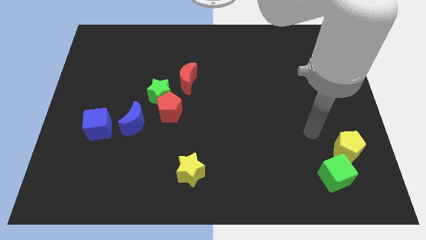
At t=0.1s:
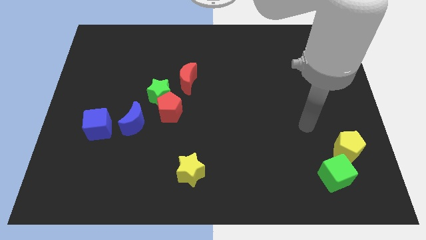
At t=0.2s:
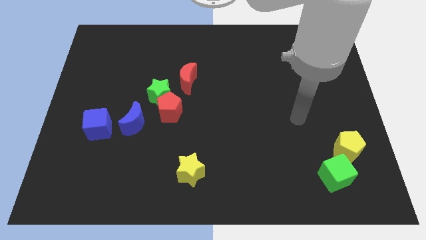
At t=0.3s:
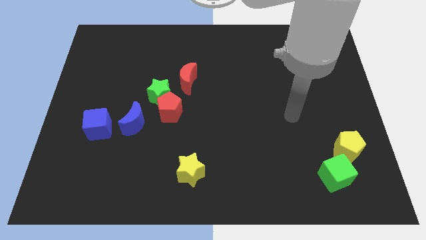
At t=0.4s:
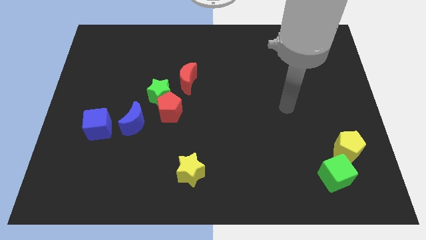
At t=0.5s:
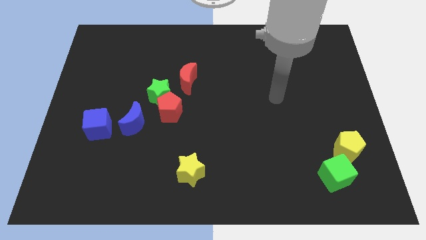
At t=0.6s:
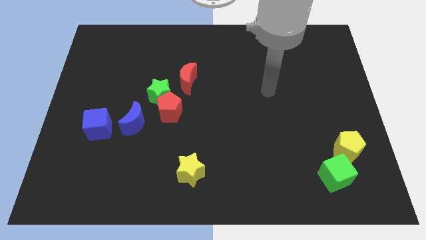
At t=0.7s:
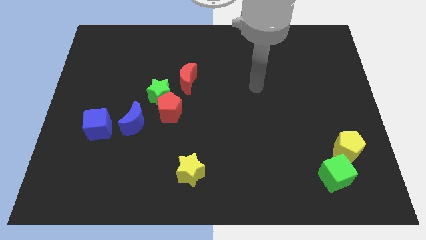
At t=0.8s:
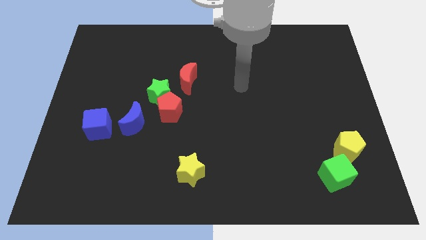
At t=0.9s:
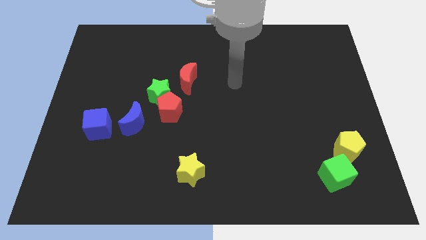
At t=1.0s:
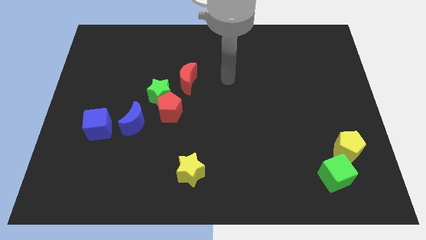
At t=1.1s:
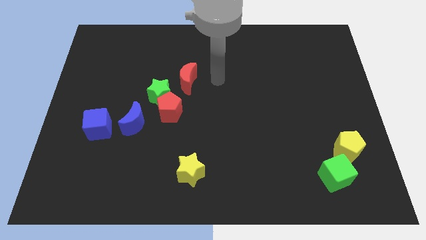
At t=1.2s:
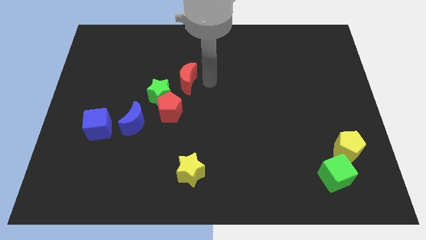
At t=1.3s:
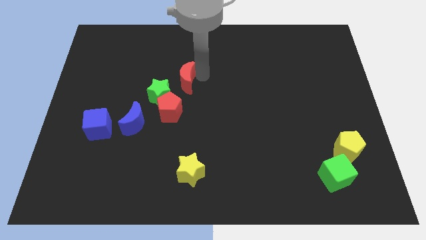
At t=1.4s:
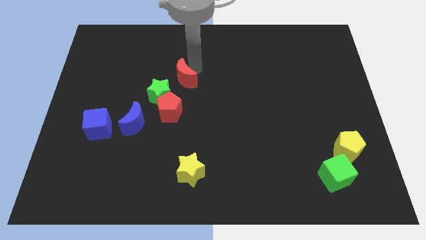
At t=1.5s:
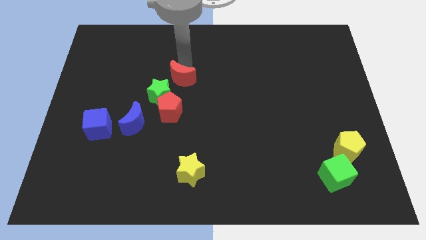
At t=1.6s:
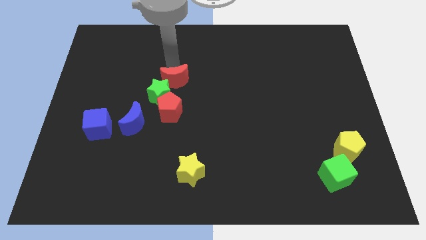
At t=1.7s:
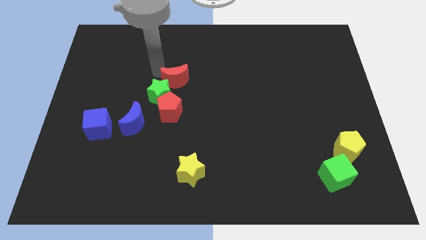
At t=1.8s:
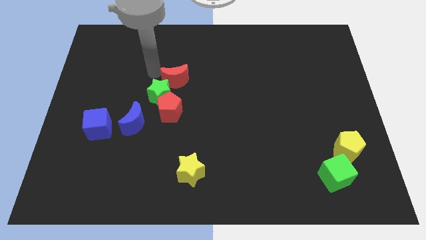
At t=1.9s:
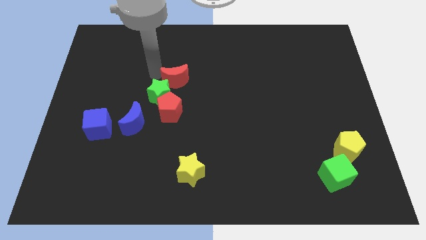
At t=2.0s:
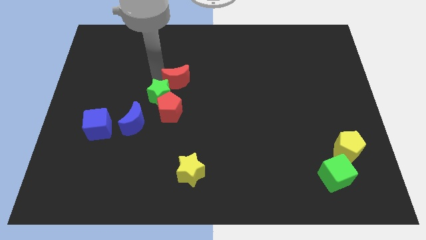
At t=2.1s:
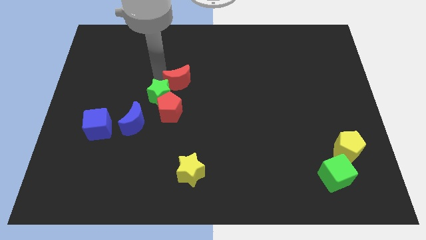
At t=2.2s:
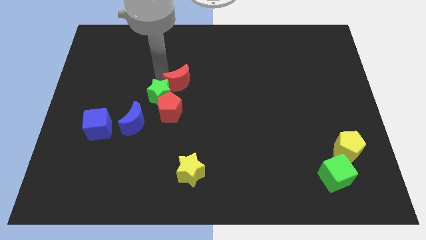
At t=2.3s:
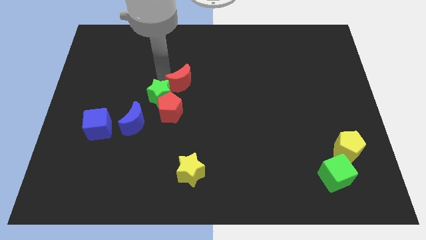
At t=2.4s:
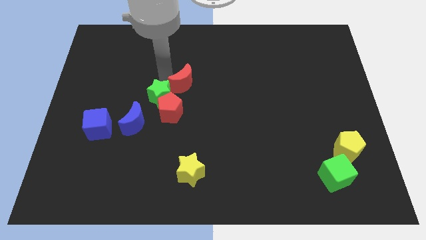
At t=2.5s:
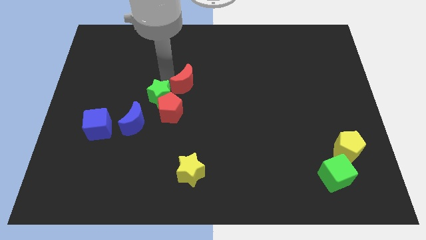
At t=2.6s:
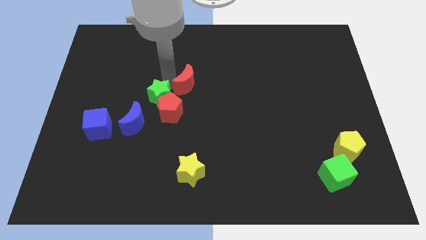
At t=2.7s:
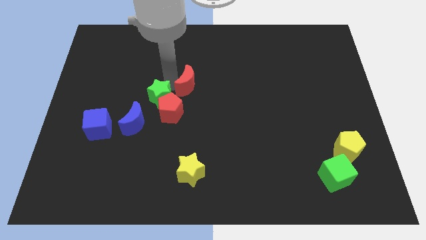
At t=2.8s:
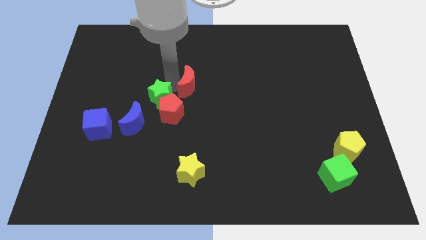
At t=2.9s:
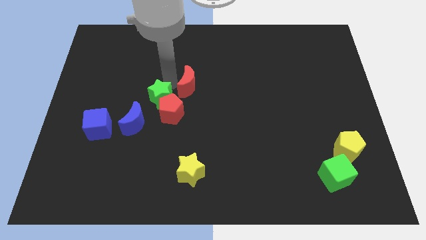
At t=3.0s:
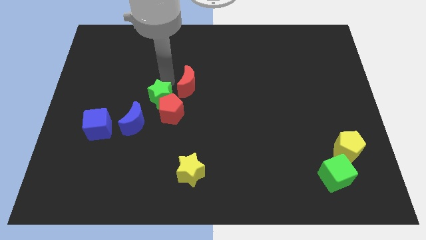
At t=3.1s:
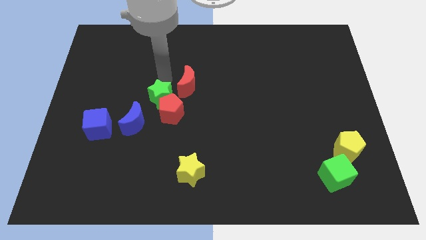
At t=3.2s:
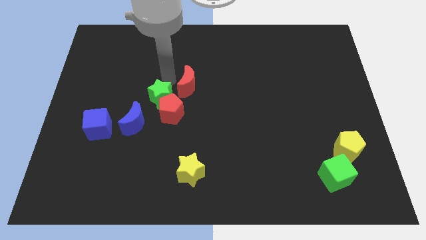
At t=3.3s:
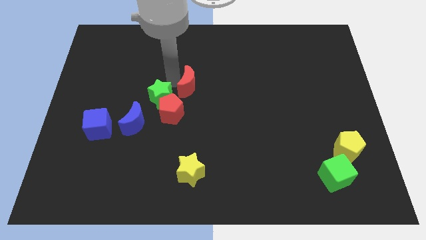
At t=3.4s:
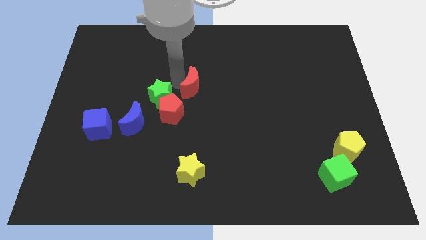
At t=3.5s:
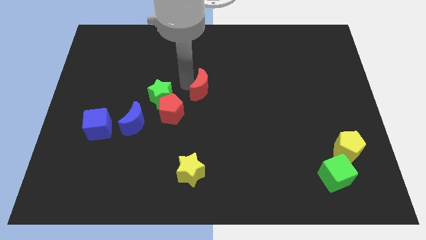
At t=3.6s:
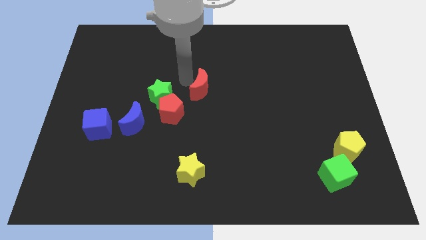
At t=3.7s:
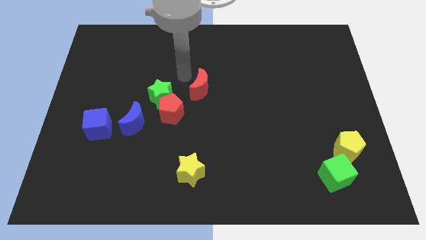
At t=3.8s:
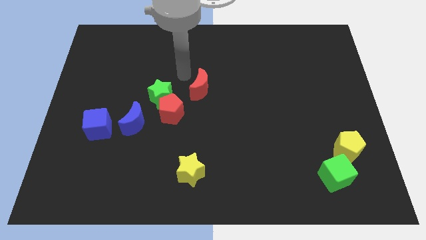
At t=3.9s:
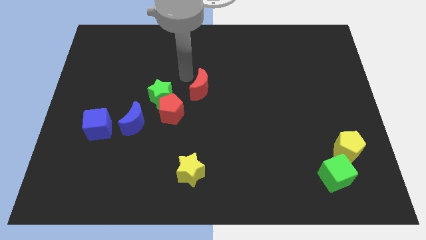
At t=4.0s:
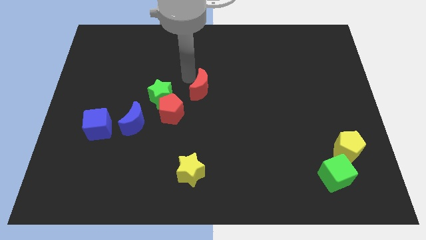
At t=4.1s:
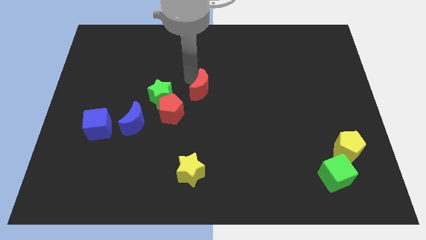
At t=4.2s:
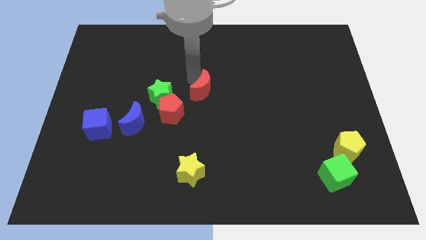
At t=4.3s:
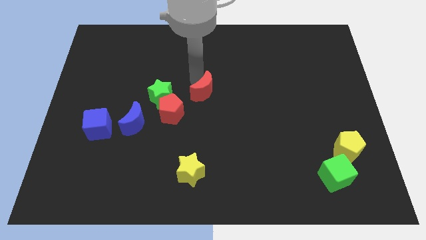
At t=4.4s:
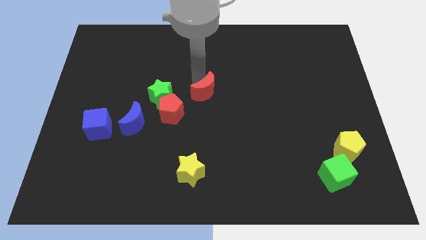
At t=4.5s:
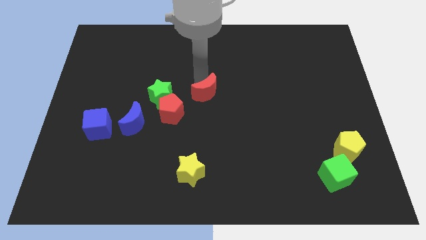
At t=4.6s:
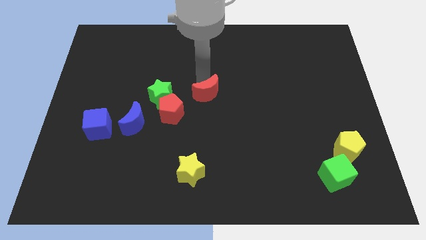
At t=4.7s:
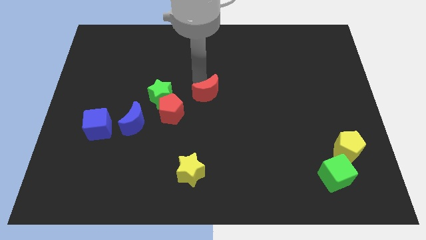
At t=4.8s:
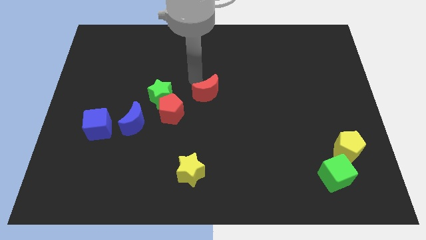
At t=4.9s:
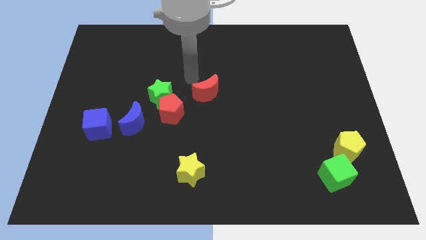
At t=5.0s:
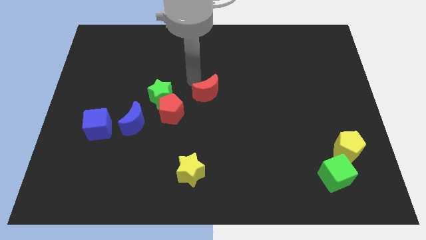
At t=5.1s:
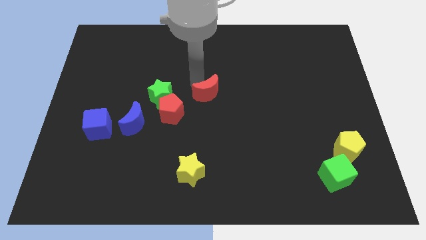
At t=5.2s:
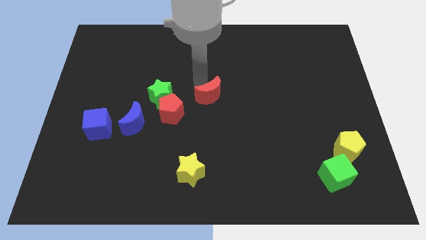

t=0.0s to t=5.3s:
push the red moon downwards and right somewhat

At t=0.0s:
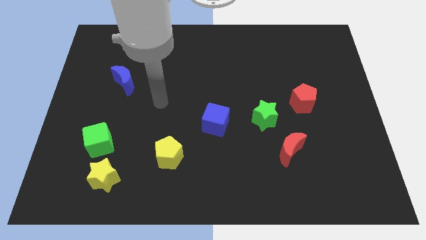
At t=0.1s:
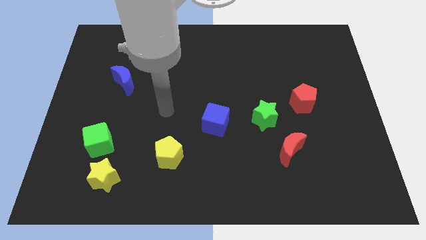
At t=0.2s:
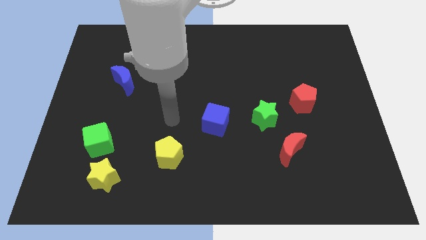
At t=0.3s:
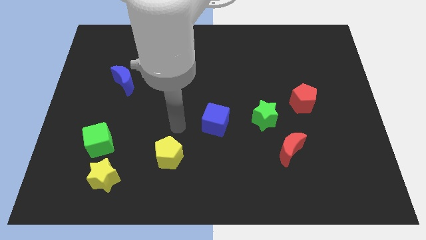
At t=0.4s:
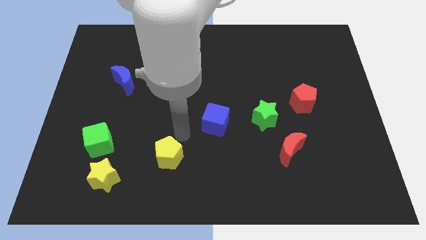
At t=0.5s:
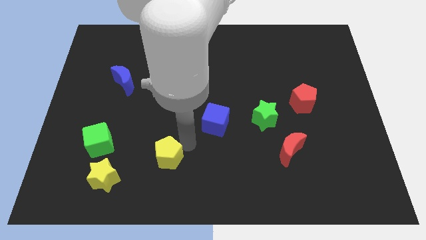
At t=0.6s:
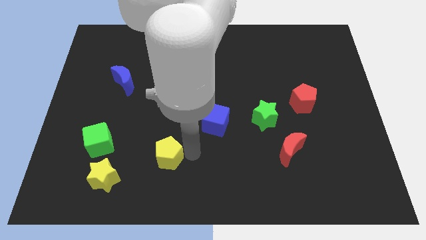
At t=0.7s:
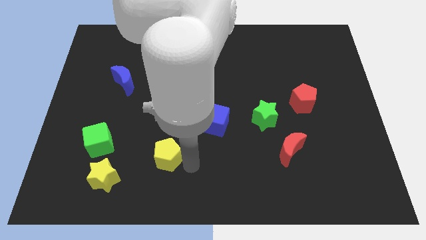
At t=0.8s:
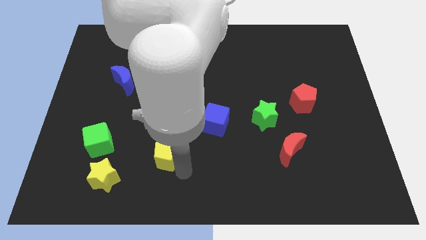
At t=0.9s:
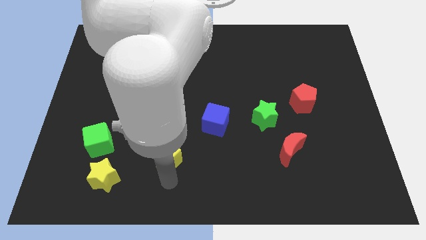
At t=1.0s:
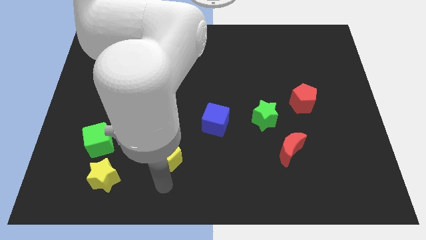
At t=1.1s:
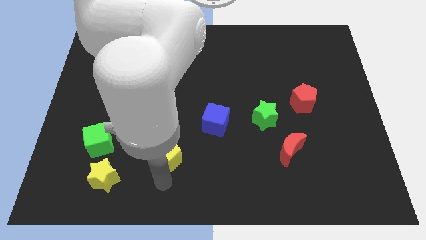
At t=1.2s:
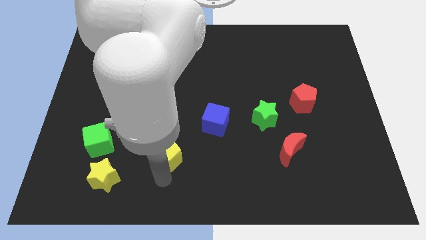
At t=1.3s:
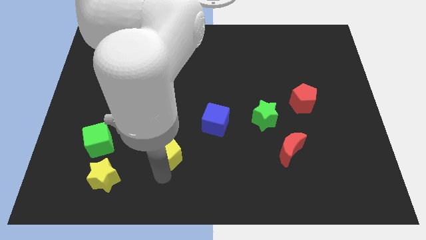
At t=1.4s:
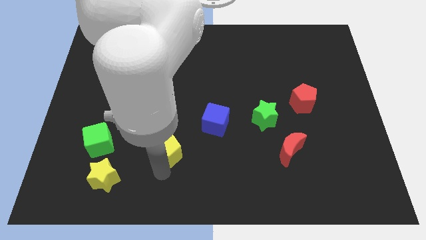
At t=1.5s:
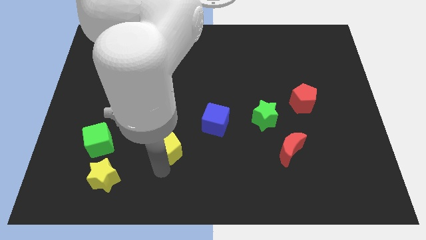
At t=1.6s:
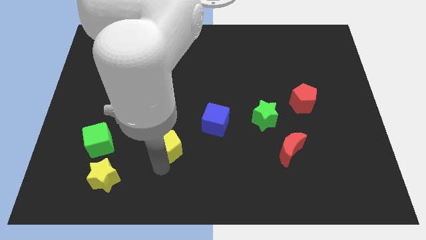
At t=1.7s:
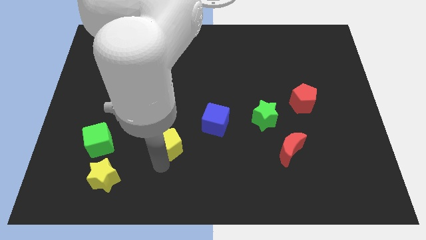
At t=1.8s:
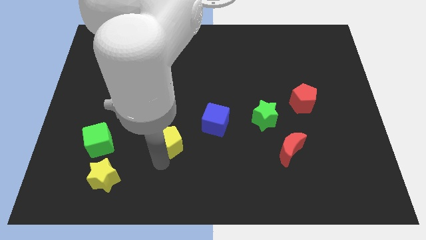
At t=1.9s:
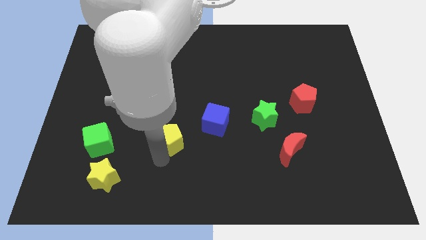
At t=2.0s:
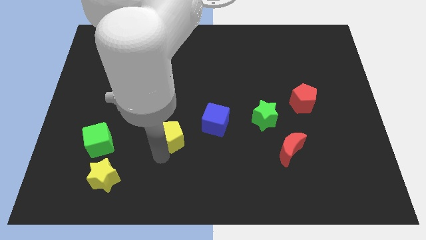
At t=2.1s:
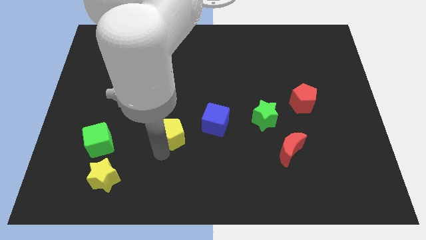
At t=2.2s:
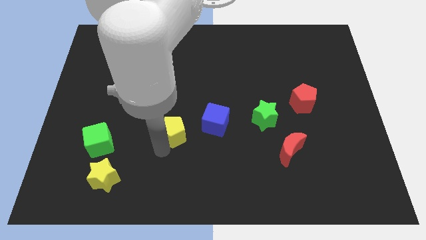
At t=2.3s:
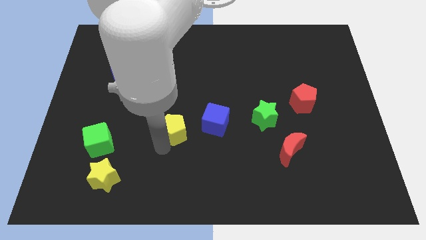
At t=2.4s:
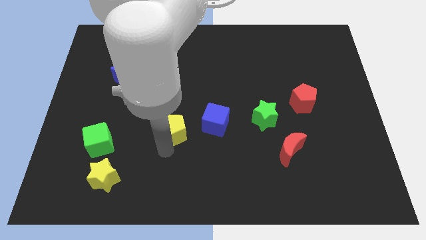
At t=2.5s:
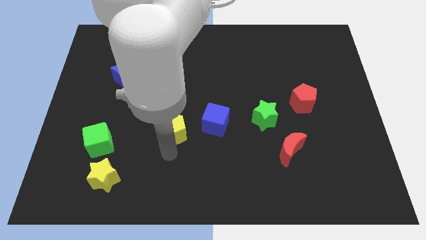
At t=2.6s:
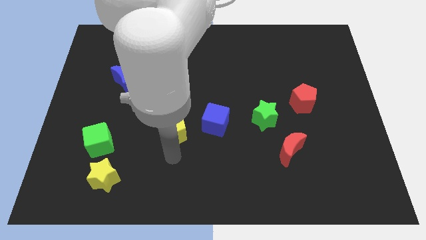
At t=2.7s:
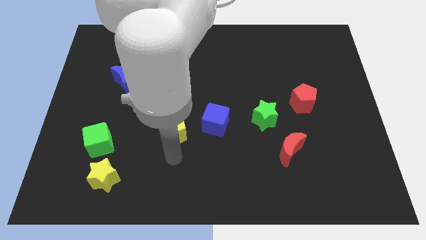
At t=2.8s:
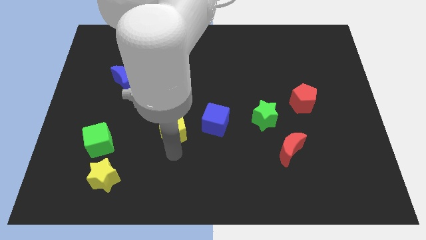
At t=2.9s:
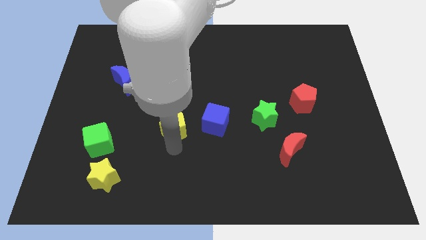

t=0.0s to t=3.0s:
push the yellow pentagon somewhat upwards
